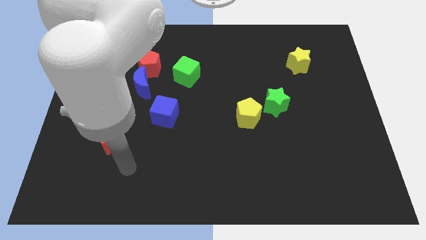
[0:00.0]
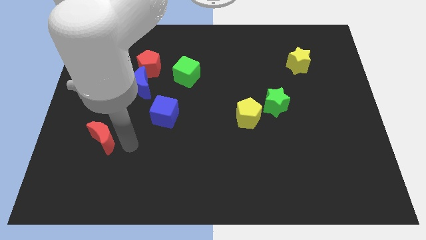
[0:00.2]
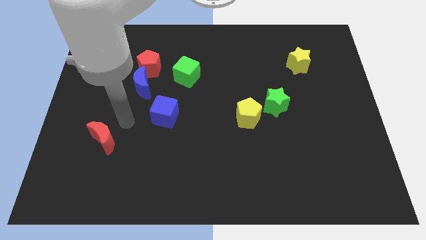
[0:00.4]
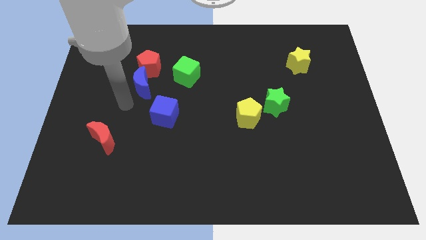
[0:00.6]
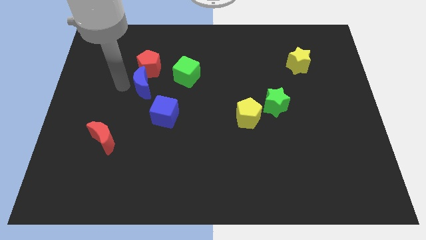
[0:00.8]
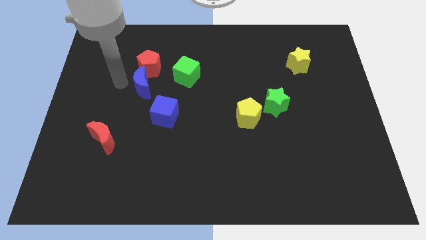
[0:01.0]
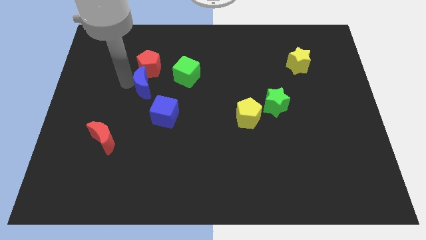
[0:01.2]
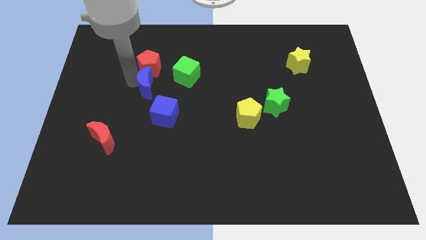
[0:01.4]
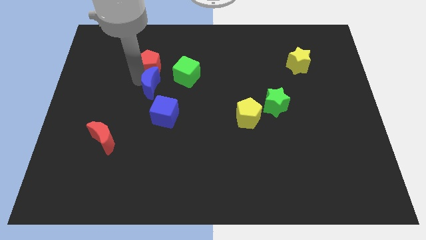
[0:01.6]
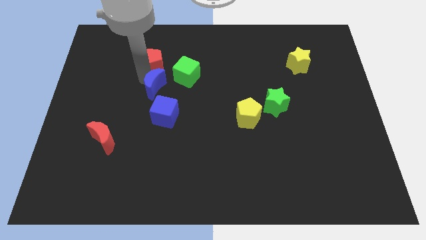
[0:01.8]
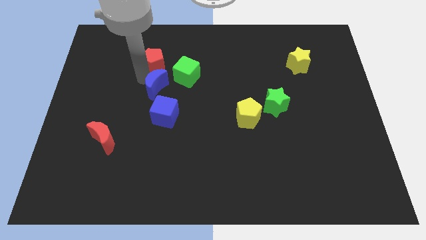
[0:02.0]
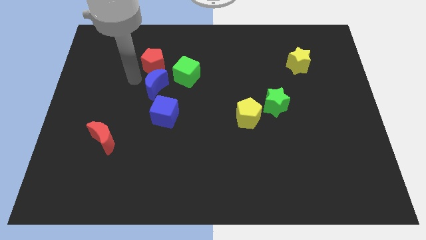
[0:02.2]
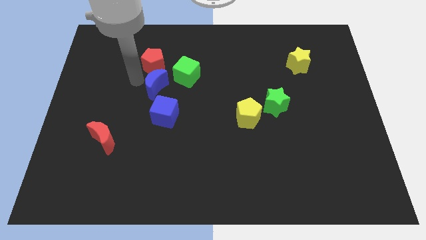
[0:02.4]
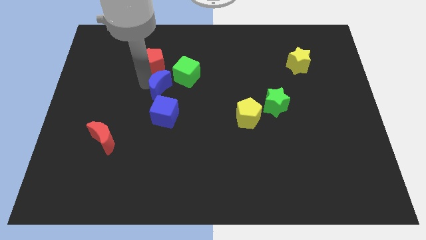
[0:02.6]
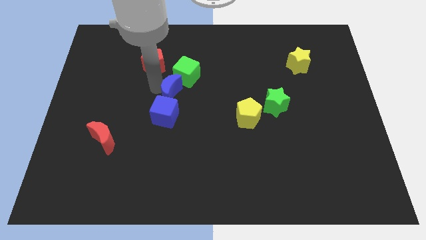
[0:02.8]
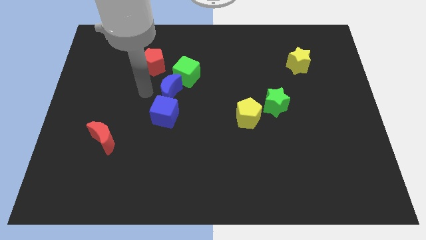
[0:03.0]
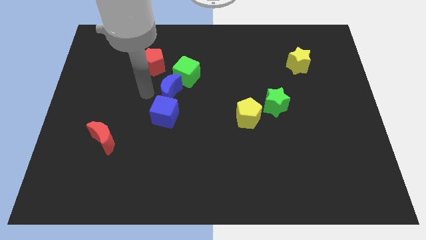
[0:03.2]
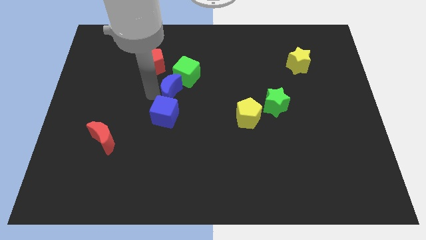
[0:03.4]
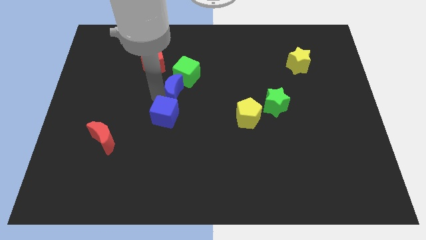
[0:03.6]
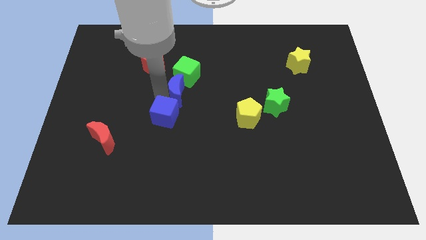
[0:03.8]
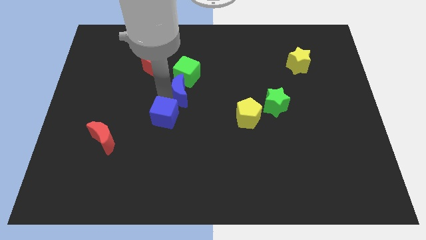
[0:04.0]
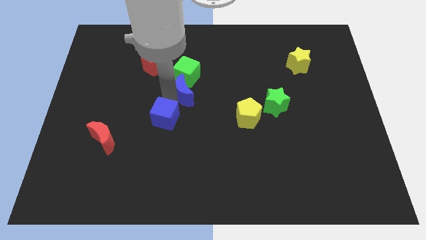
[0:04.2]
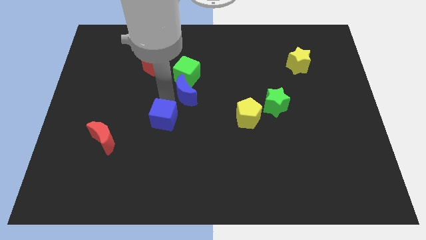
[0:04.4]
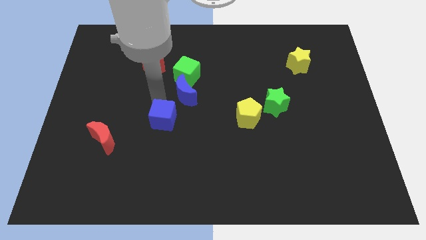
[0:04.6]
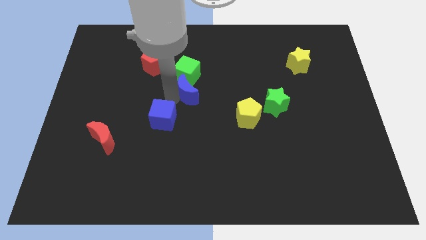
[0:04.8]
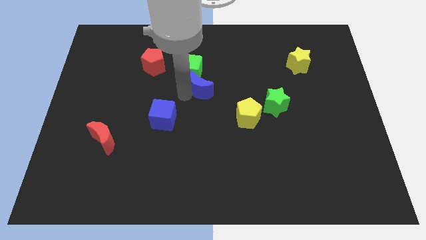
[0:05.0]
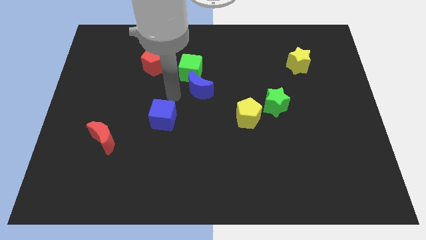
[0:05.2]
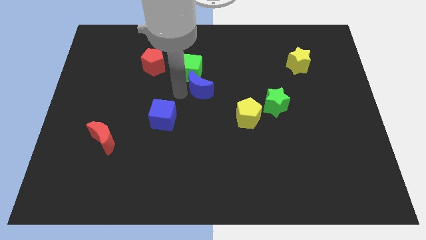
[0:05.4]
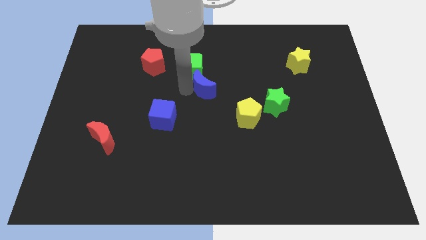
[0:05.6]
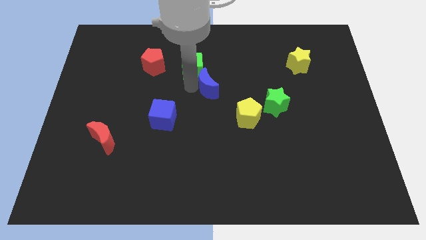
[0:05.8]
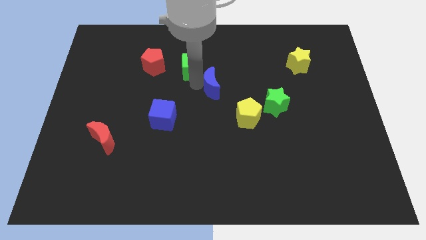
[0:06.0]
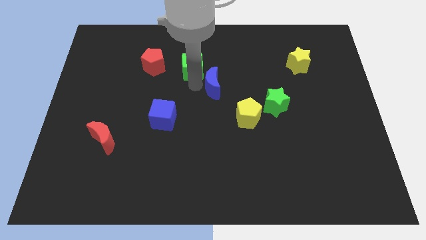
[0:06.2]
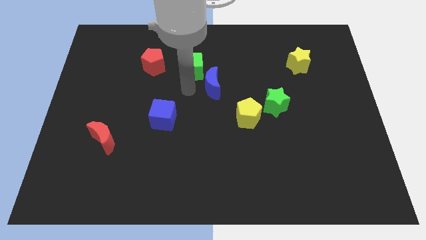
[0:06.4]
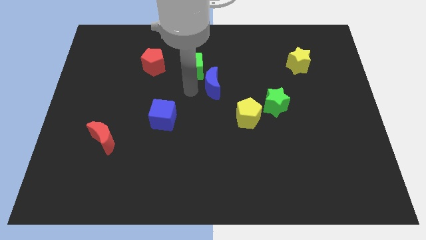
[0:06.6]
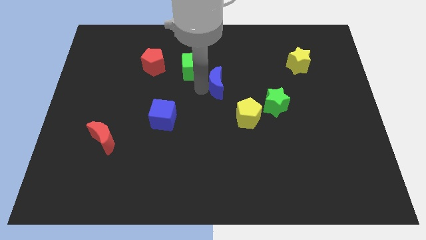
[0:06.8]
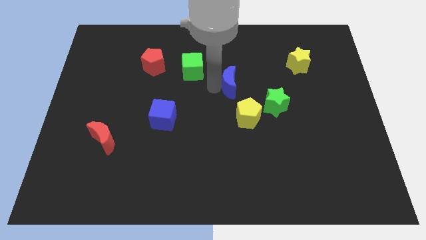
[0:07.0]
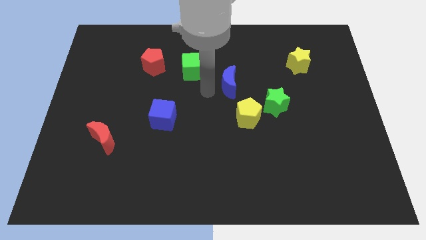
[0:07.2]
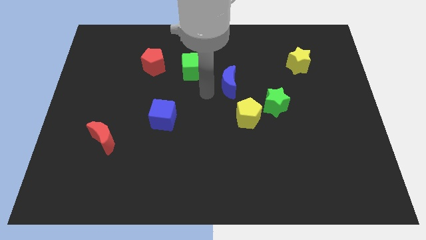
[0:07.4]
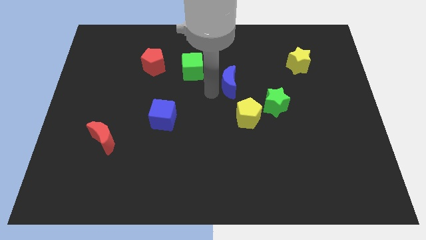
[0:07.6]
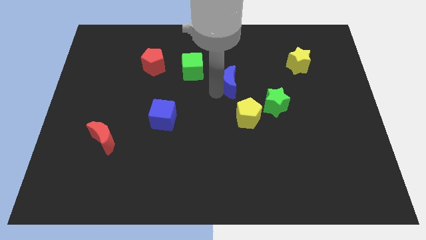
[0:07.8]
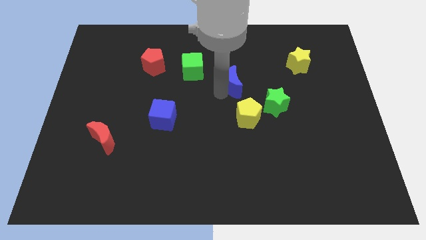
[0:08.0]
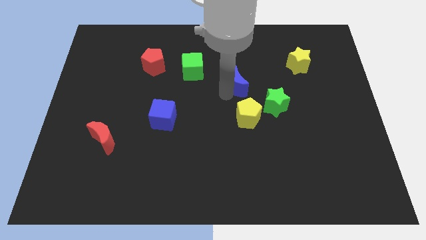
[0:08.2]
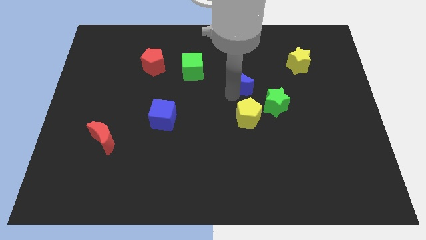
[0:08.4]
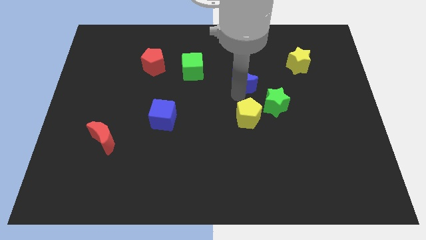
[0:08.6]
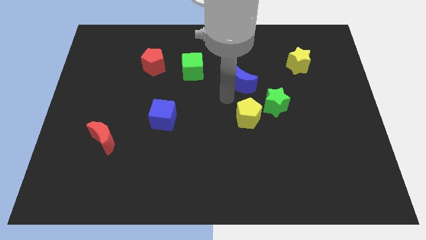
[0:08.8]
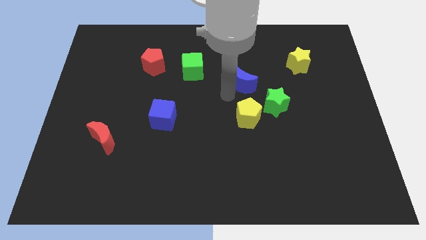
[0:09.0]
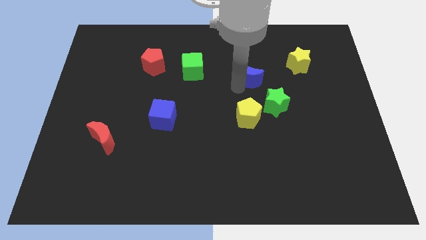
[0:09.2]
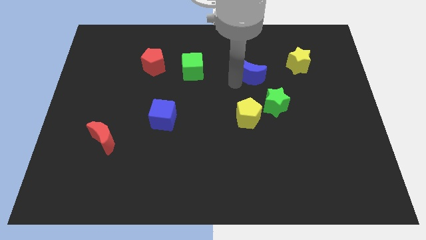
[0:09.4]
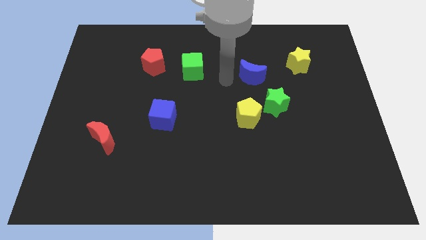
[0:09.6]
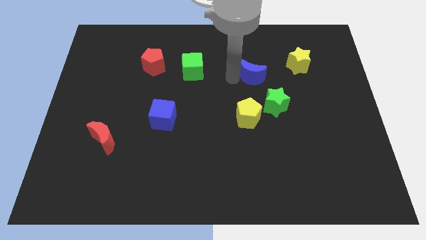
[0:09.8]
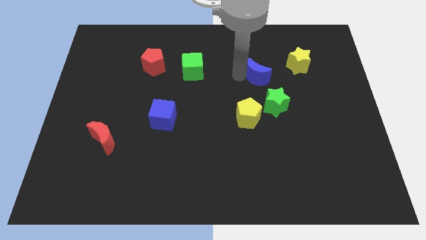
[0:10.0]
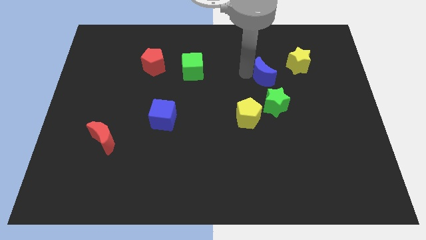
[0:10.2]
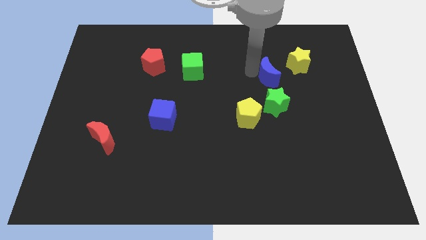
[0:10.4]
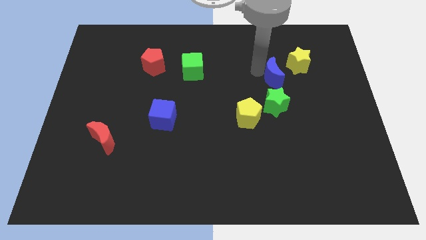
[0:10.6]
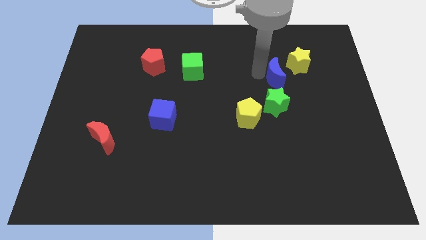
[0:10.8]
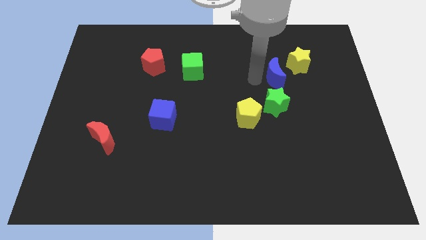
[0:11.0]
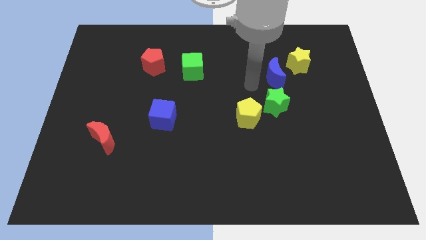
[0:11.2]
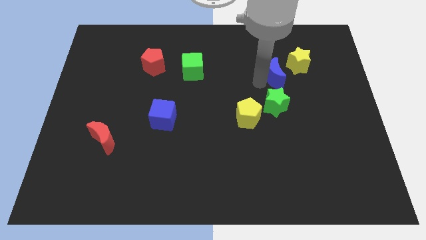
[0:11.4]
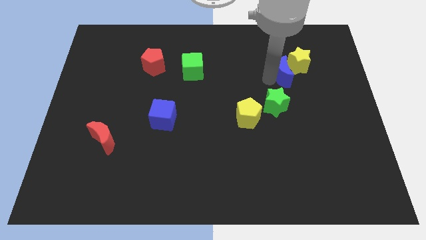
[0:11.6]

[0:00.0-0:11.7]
move the blue moon towards the yellow star

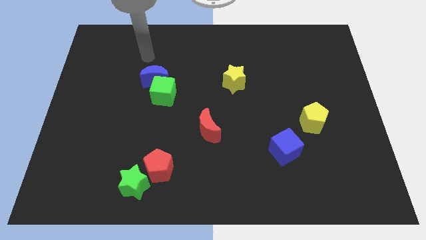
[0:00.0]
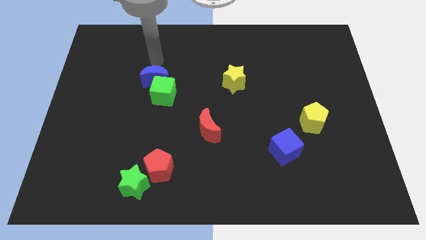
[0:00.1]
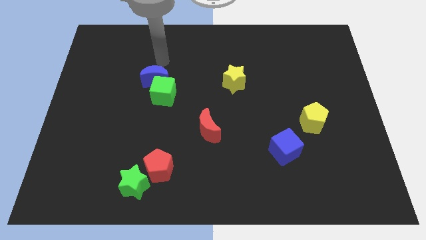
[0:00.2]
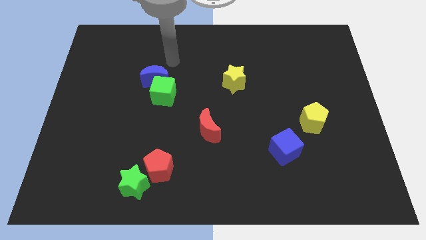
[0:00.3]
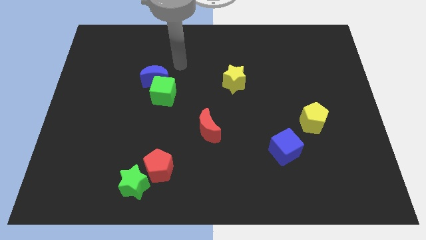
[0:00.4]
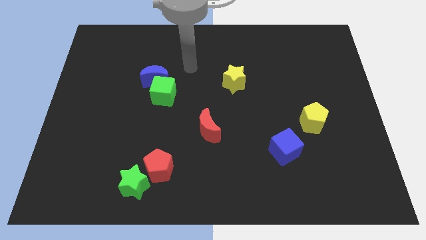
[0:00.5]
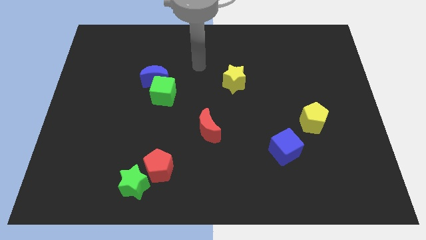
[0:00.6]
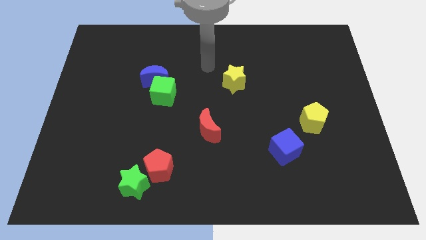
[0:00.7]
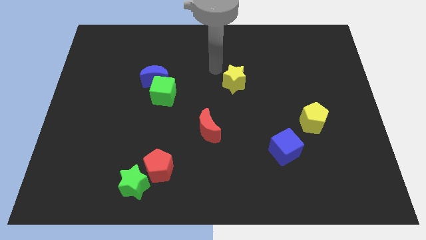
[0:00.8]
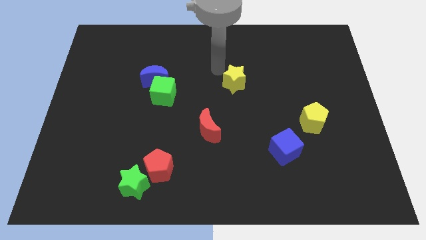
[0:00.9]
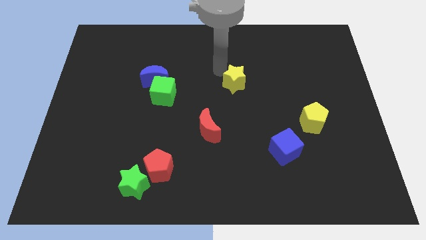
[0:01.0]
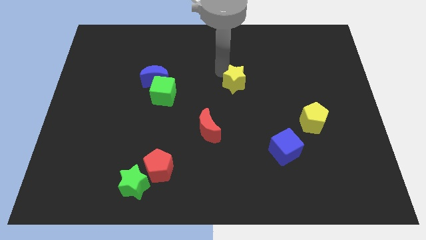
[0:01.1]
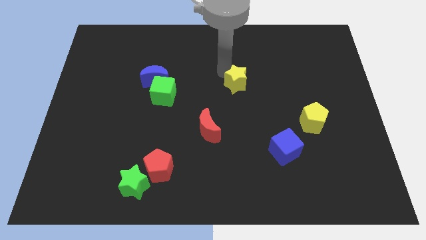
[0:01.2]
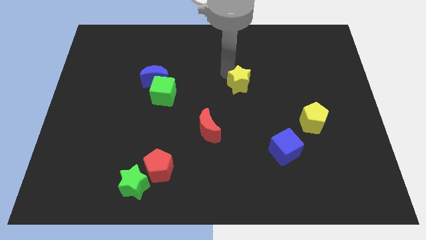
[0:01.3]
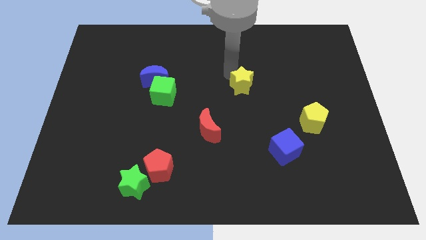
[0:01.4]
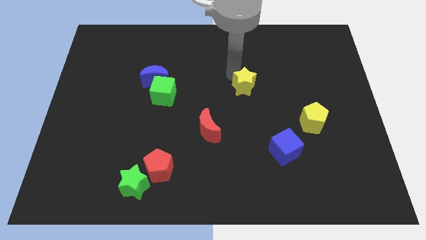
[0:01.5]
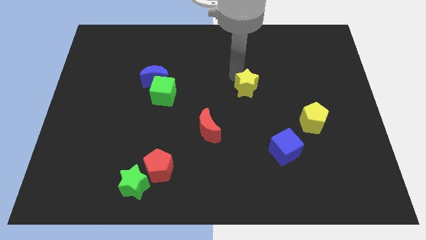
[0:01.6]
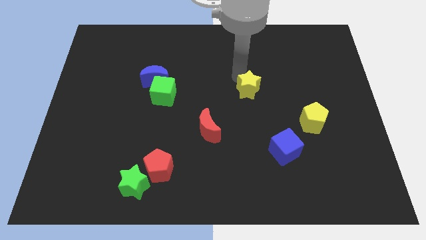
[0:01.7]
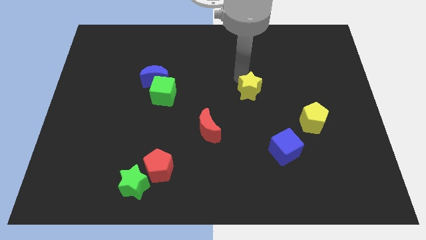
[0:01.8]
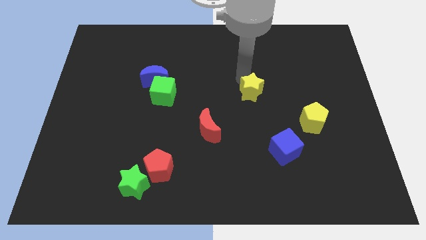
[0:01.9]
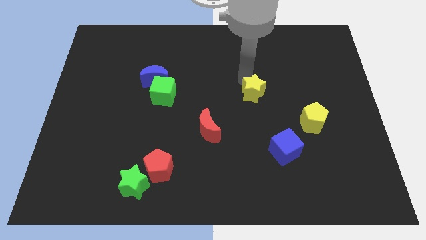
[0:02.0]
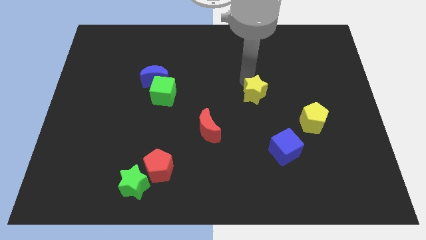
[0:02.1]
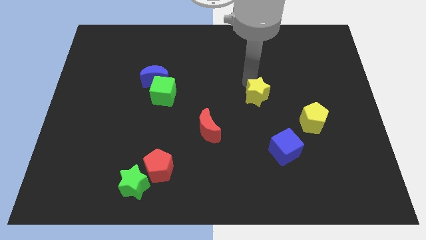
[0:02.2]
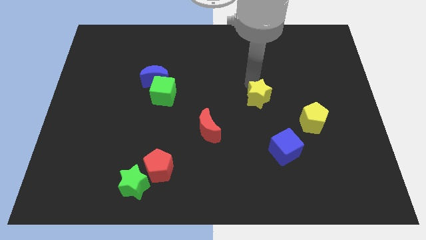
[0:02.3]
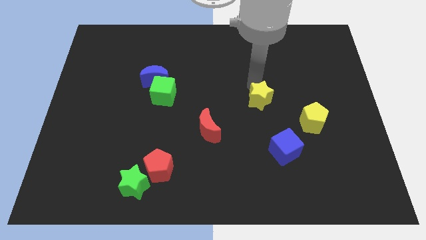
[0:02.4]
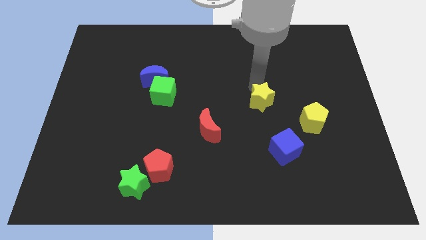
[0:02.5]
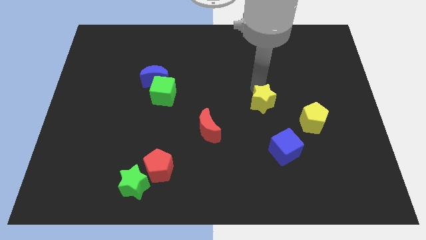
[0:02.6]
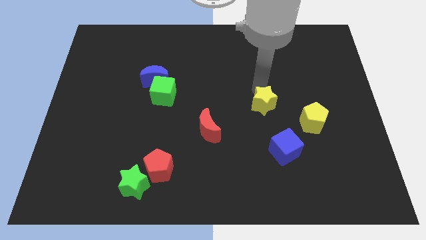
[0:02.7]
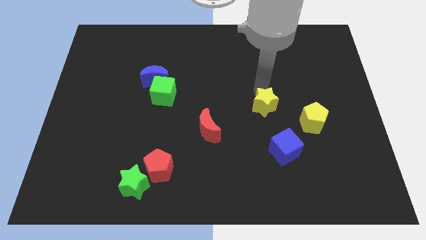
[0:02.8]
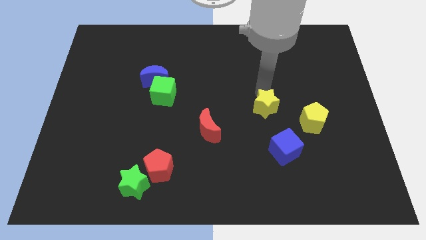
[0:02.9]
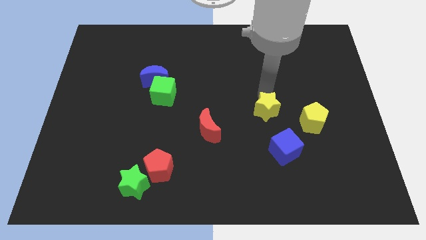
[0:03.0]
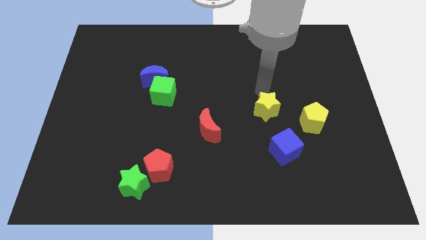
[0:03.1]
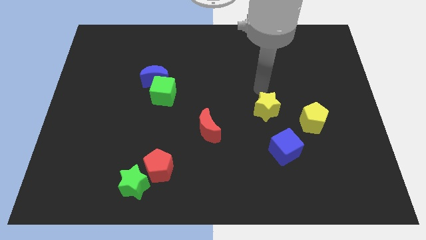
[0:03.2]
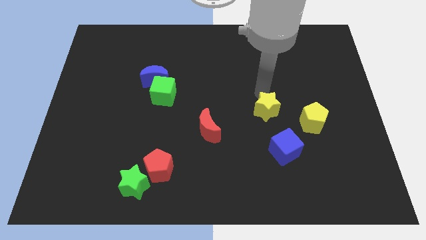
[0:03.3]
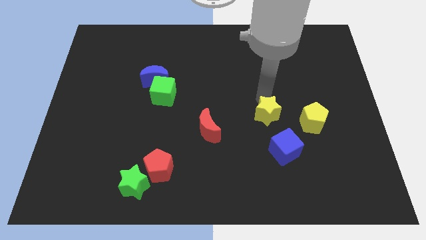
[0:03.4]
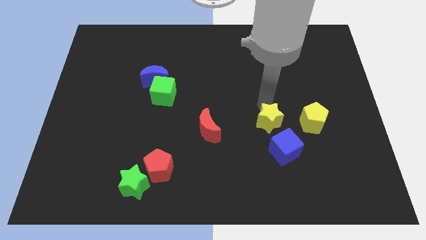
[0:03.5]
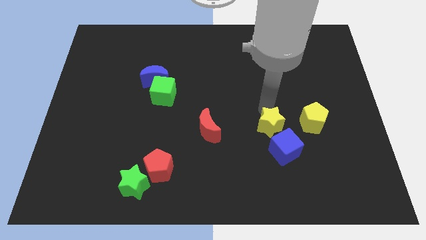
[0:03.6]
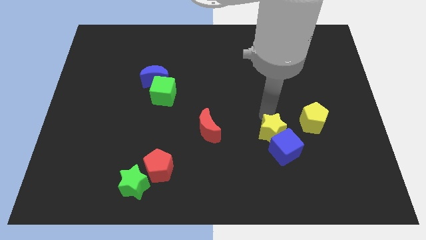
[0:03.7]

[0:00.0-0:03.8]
push the yellow star next to the blue cube
